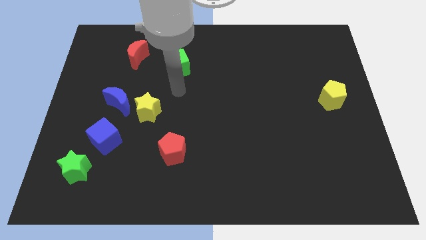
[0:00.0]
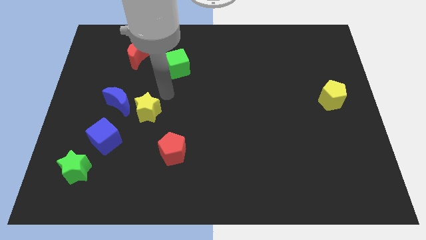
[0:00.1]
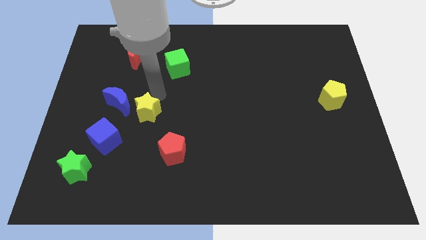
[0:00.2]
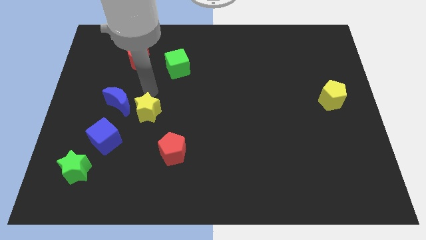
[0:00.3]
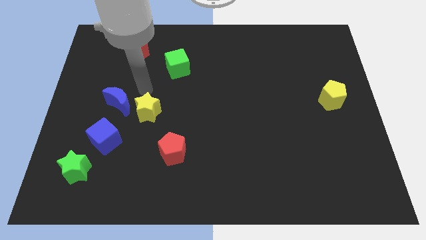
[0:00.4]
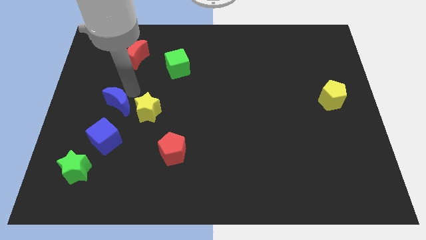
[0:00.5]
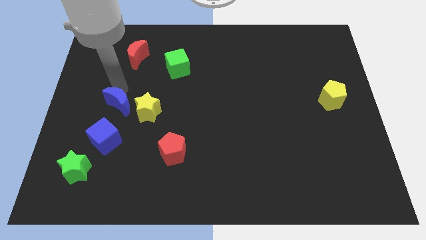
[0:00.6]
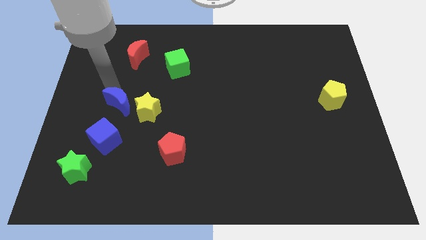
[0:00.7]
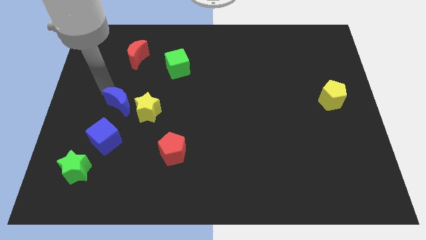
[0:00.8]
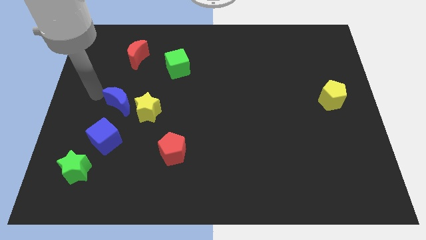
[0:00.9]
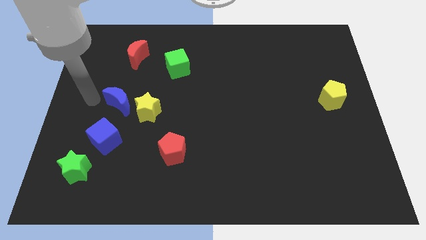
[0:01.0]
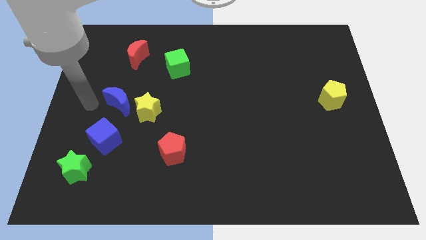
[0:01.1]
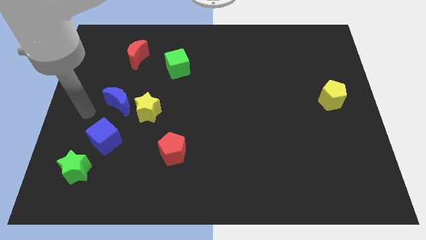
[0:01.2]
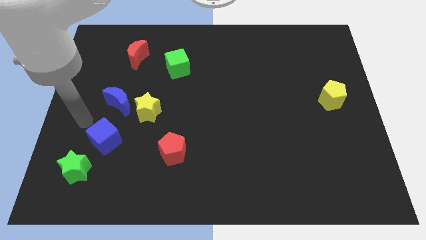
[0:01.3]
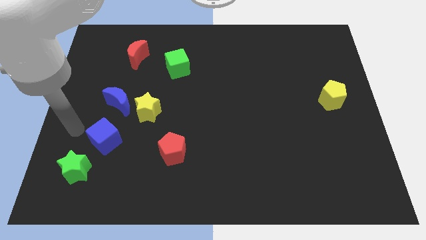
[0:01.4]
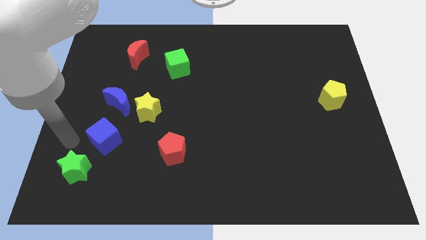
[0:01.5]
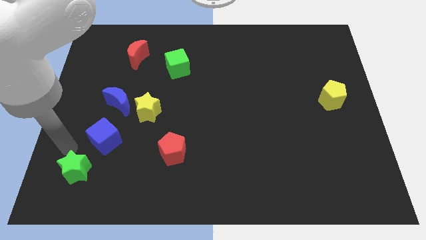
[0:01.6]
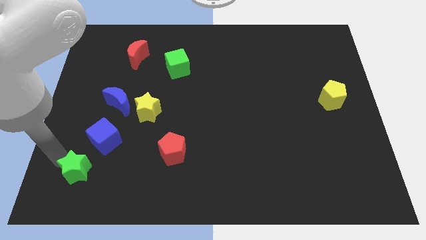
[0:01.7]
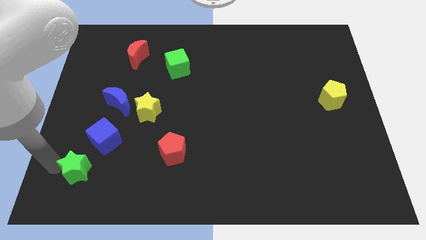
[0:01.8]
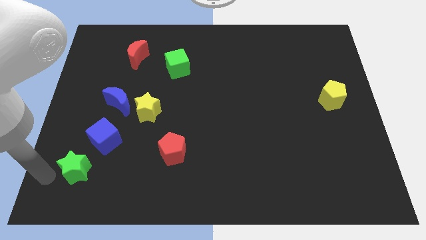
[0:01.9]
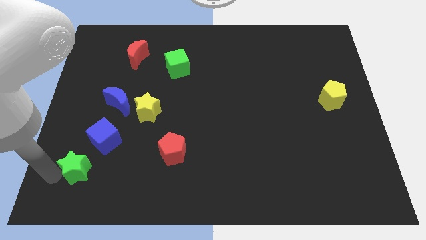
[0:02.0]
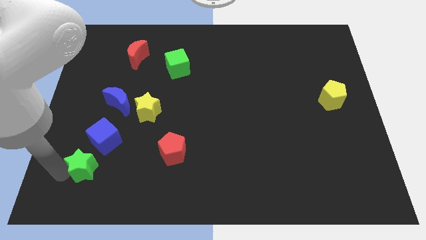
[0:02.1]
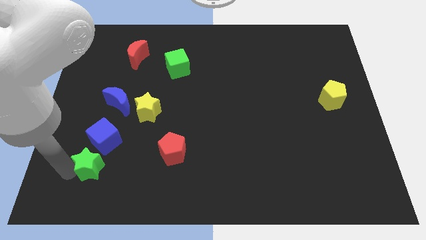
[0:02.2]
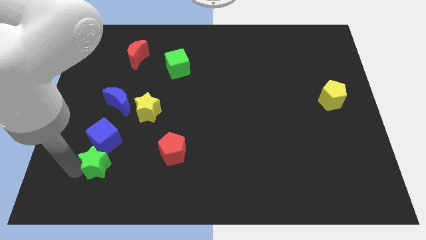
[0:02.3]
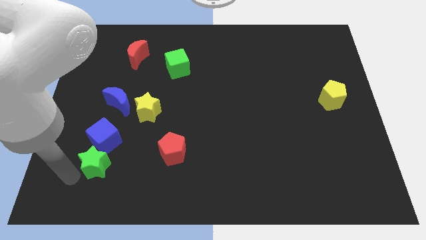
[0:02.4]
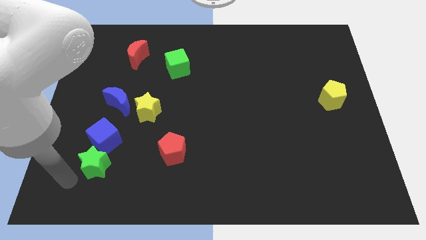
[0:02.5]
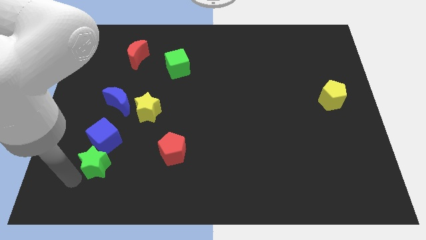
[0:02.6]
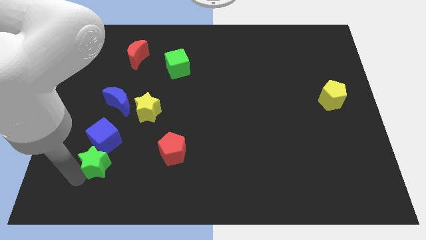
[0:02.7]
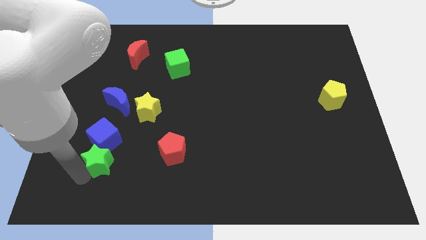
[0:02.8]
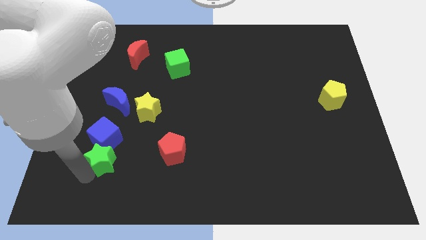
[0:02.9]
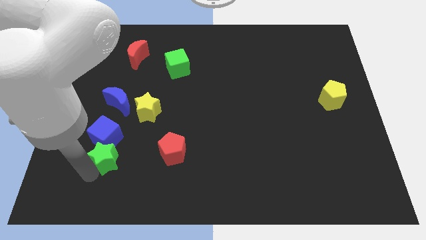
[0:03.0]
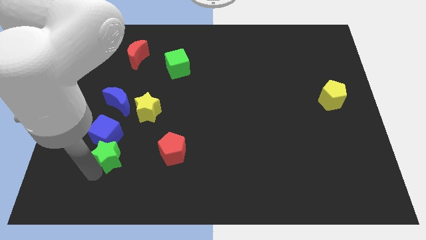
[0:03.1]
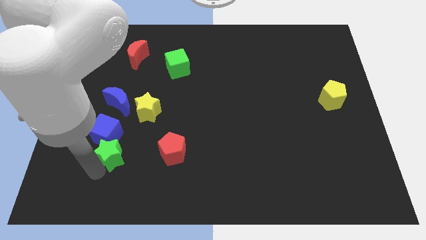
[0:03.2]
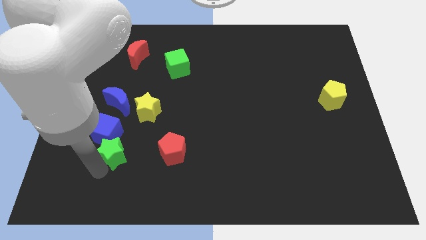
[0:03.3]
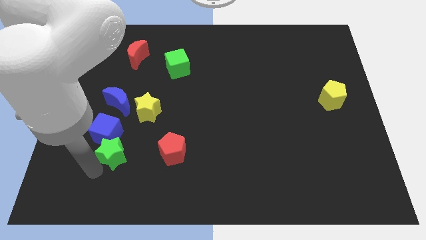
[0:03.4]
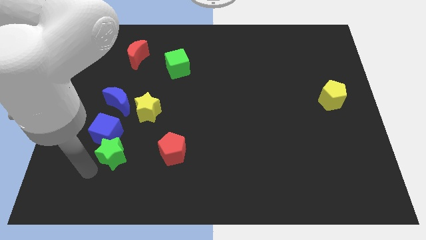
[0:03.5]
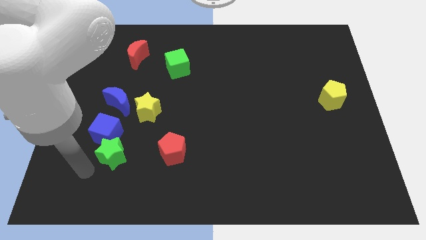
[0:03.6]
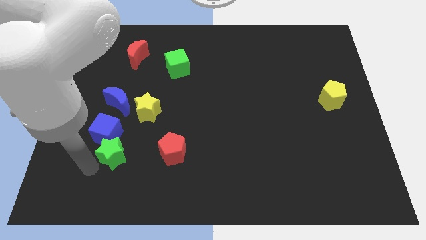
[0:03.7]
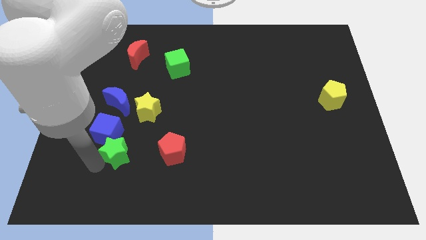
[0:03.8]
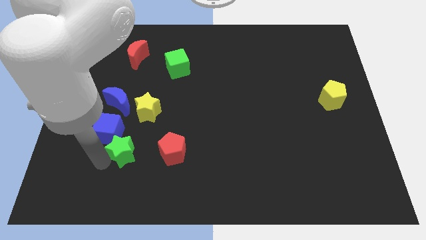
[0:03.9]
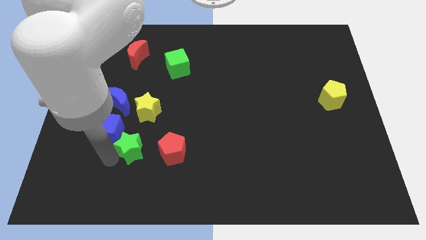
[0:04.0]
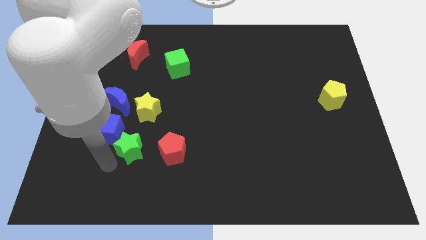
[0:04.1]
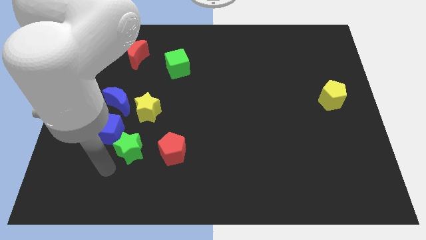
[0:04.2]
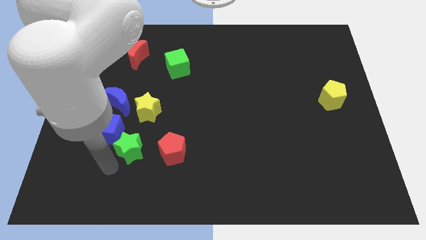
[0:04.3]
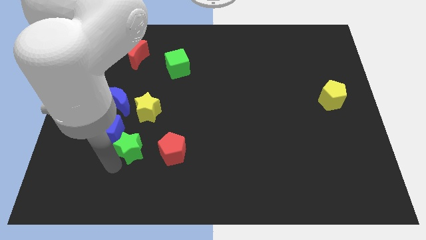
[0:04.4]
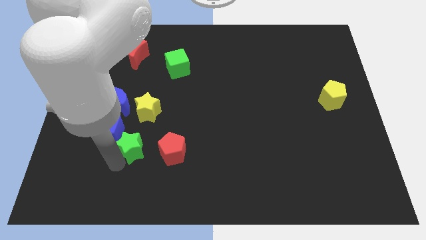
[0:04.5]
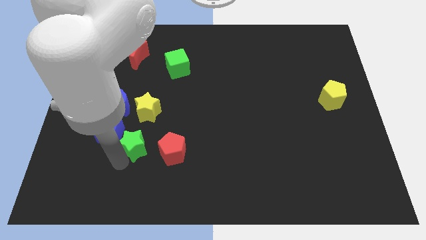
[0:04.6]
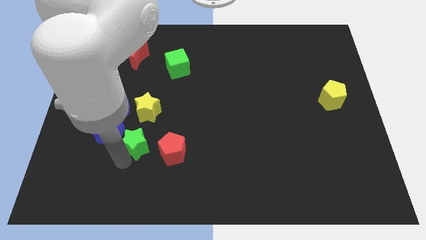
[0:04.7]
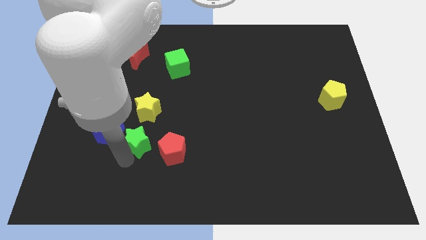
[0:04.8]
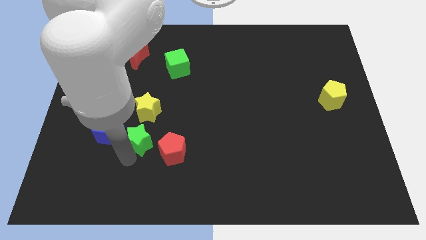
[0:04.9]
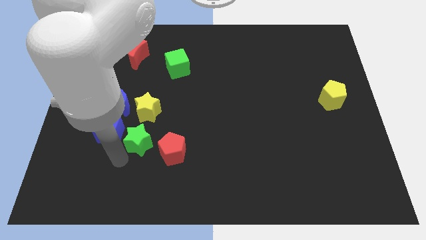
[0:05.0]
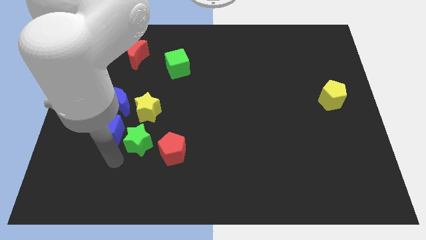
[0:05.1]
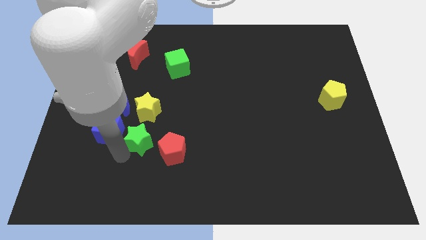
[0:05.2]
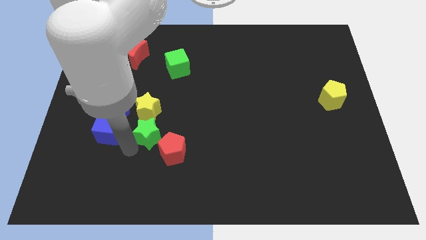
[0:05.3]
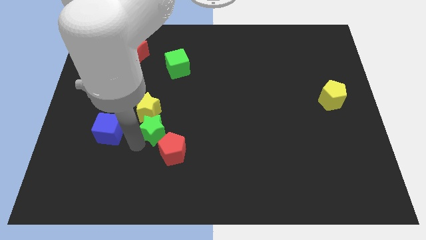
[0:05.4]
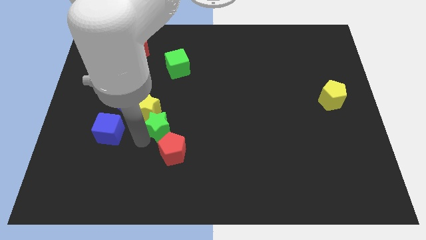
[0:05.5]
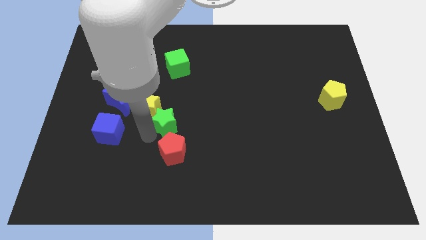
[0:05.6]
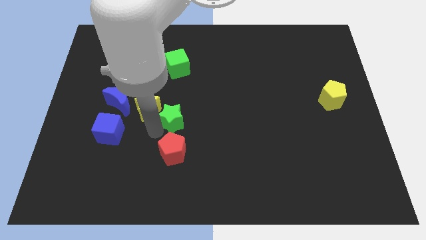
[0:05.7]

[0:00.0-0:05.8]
put the green star to the middle of the board

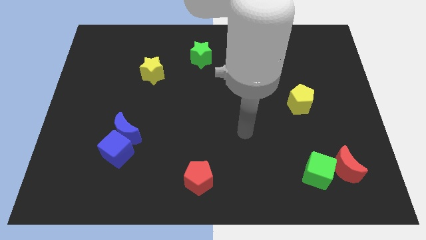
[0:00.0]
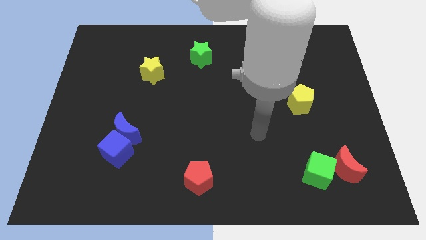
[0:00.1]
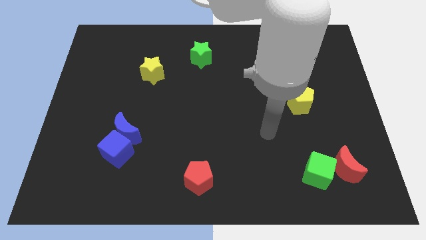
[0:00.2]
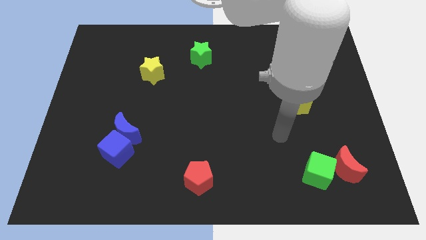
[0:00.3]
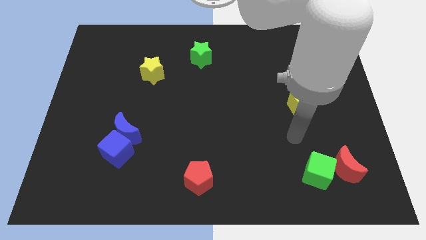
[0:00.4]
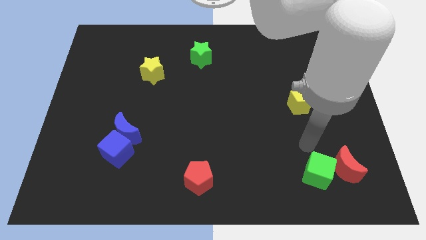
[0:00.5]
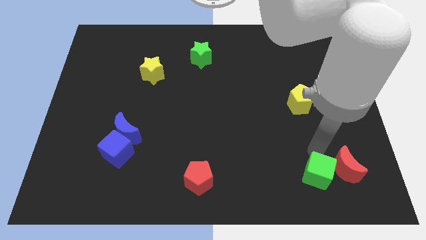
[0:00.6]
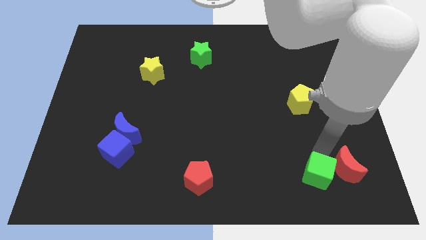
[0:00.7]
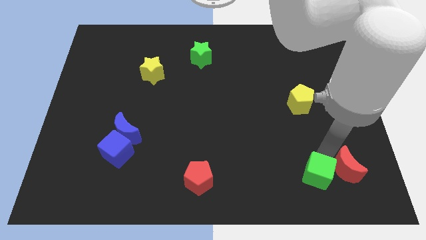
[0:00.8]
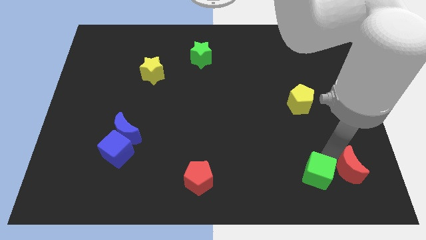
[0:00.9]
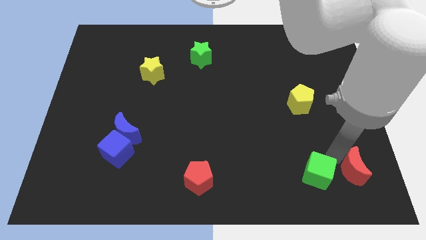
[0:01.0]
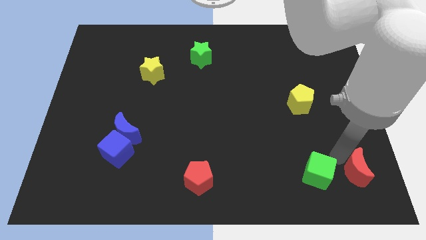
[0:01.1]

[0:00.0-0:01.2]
slide the red moon to the bottom right of the board
